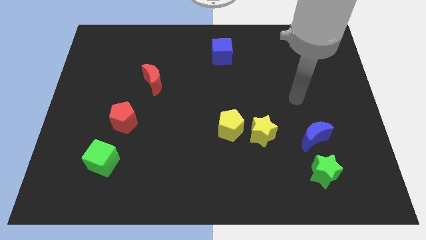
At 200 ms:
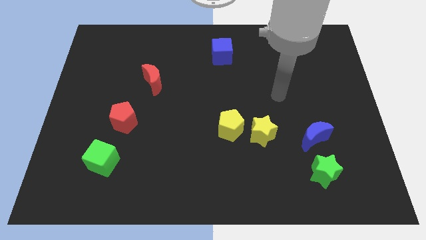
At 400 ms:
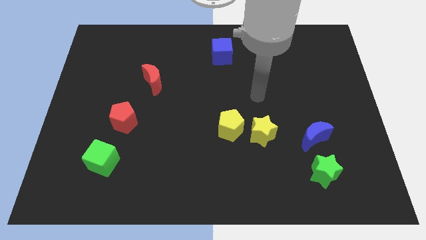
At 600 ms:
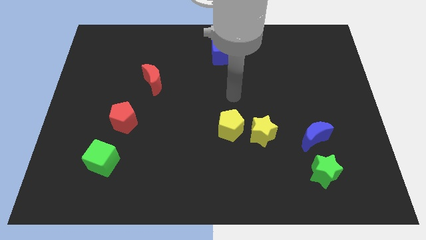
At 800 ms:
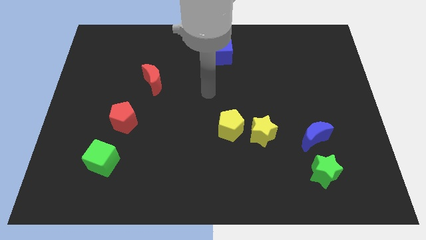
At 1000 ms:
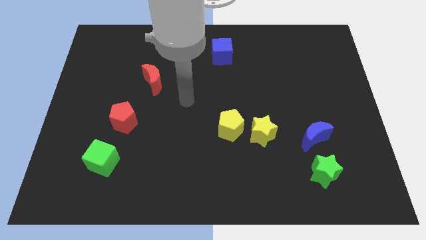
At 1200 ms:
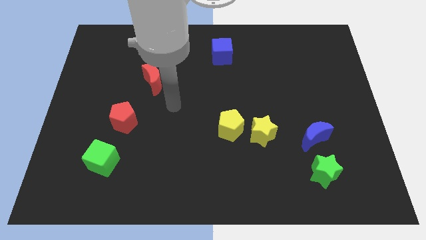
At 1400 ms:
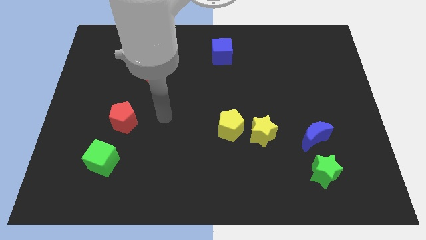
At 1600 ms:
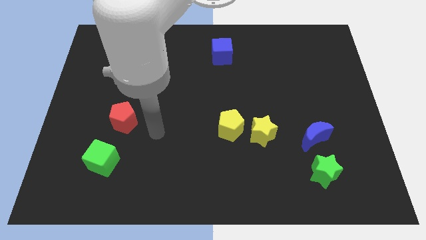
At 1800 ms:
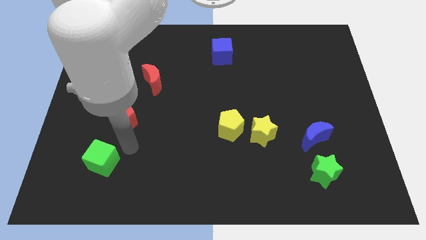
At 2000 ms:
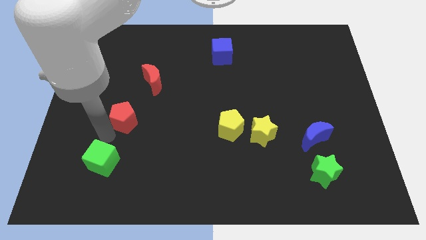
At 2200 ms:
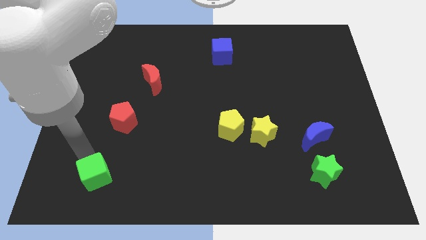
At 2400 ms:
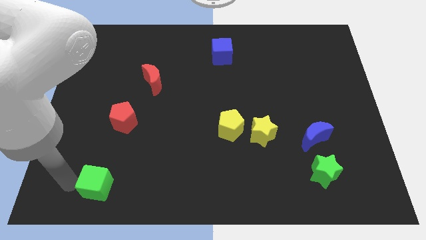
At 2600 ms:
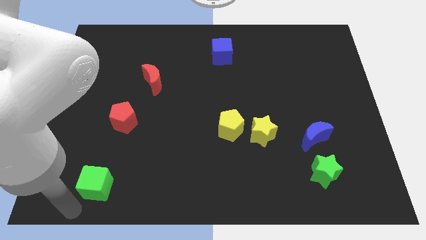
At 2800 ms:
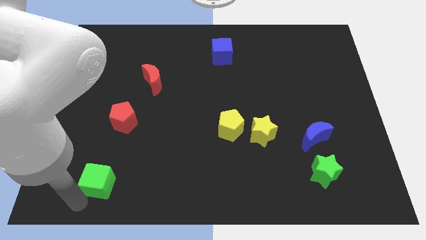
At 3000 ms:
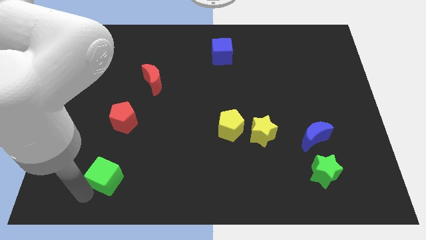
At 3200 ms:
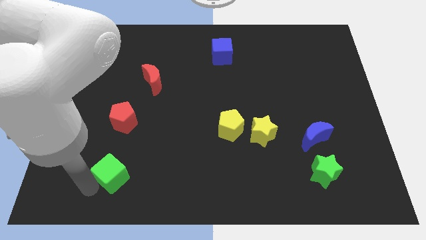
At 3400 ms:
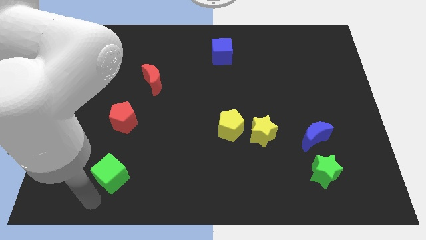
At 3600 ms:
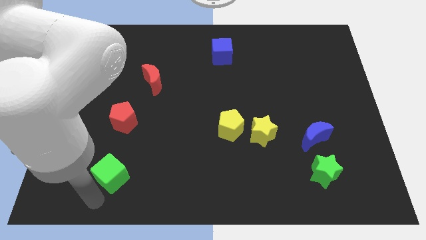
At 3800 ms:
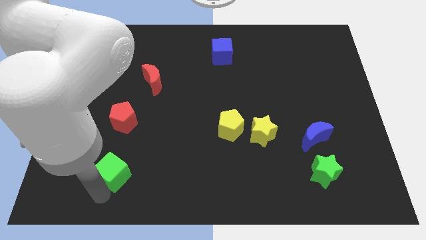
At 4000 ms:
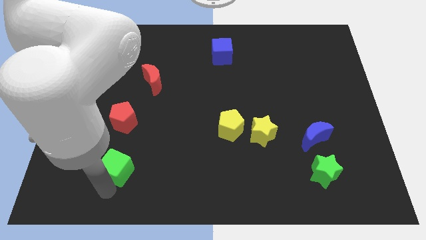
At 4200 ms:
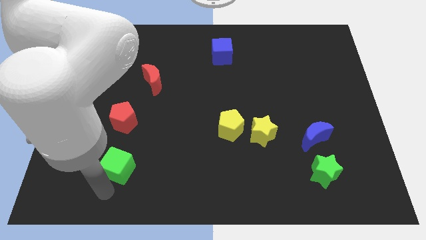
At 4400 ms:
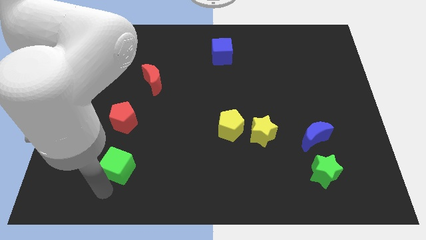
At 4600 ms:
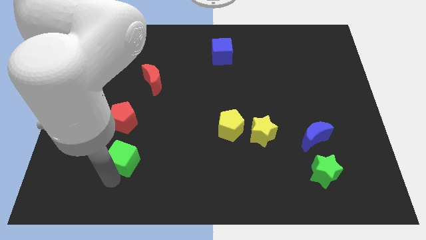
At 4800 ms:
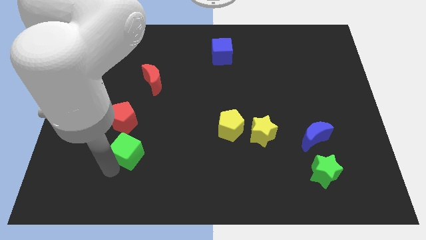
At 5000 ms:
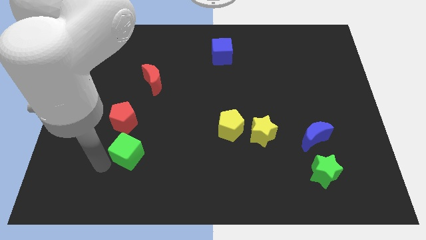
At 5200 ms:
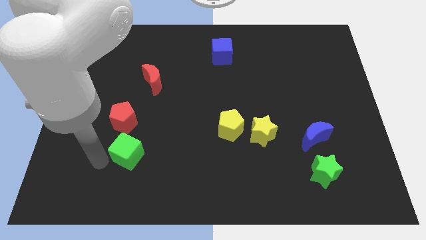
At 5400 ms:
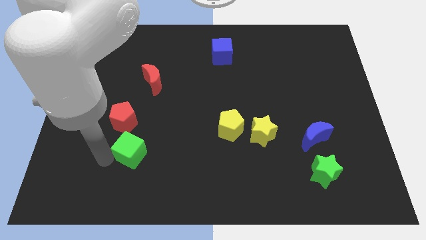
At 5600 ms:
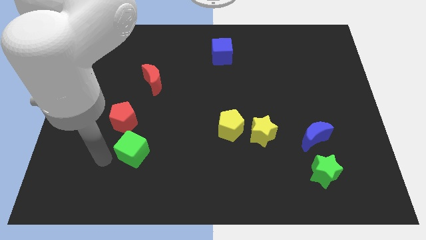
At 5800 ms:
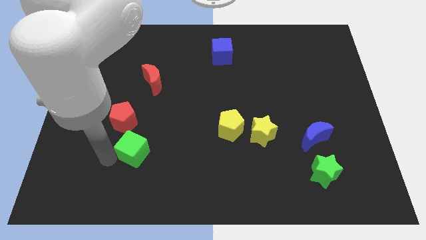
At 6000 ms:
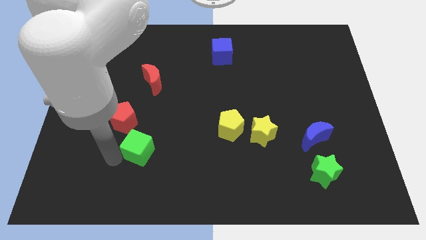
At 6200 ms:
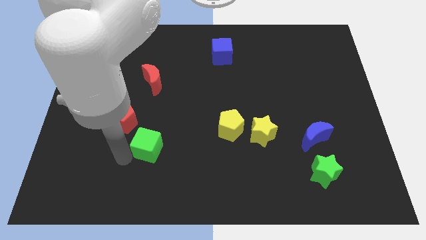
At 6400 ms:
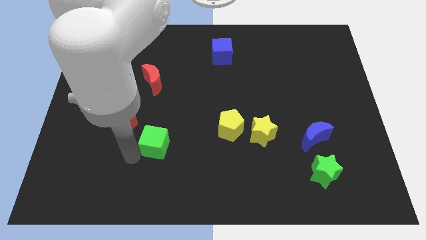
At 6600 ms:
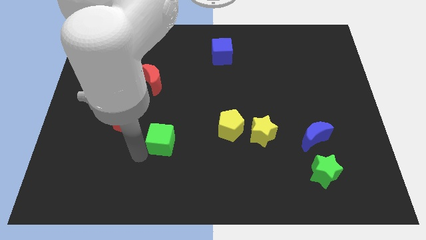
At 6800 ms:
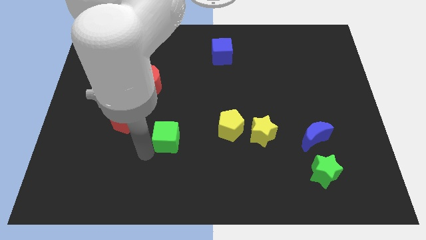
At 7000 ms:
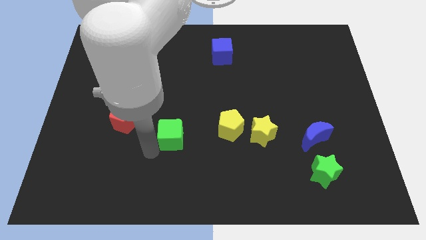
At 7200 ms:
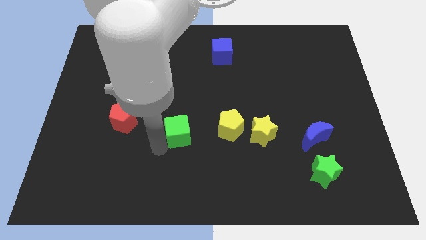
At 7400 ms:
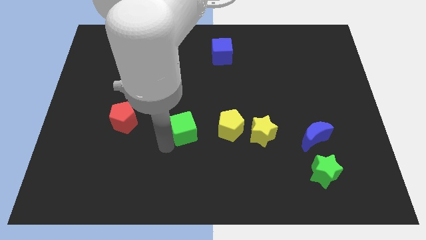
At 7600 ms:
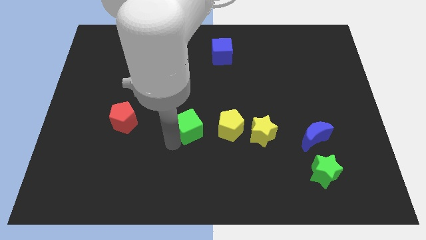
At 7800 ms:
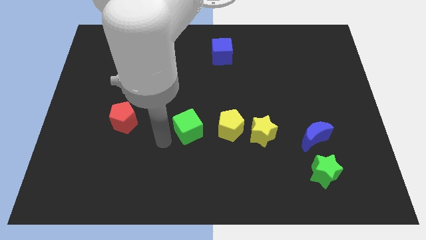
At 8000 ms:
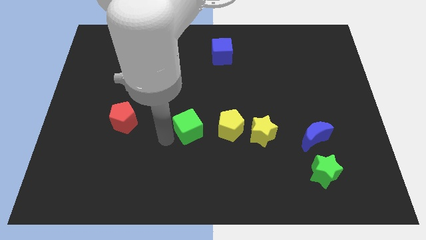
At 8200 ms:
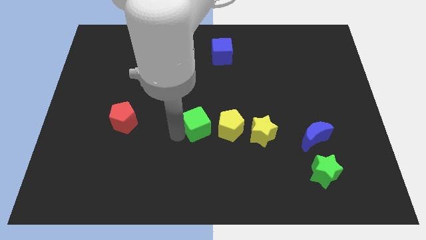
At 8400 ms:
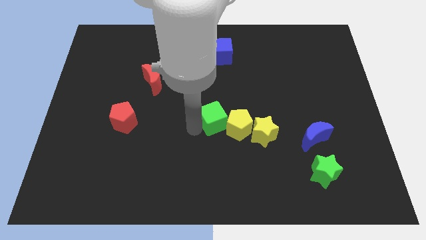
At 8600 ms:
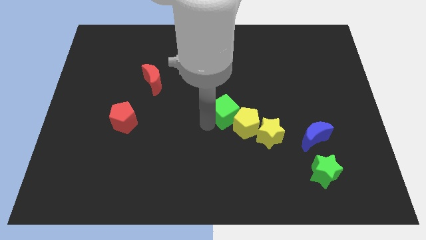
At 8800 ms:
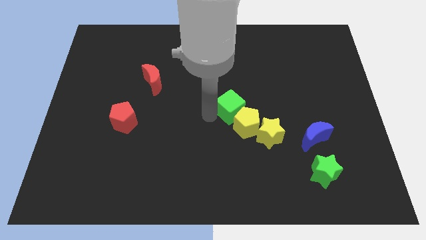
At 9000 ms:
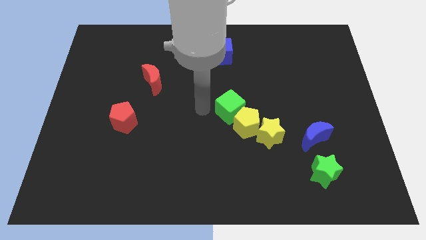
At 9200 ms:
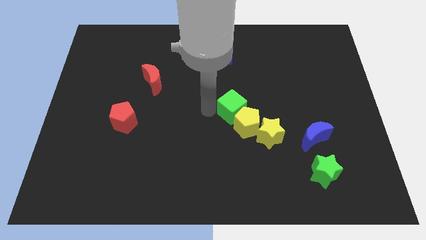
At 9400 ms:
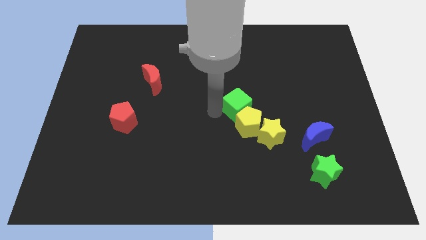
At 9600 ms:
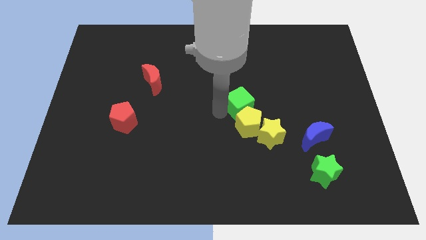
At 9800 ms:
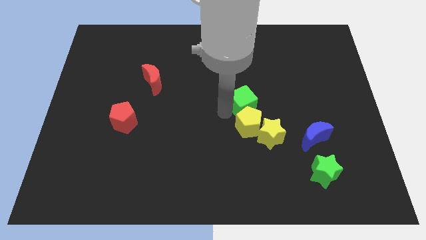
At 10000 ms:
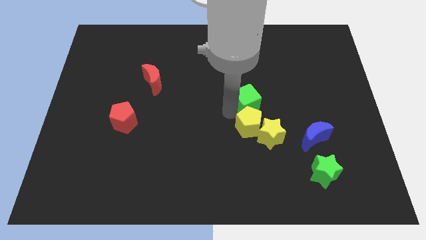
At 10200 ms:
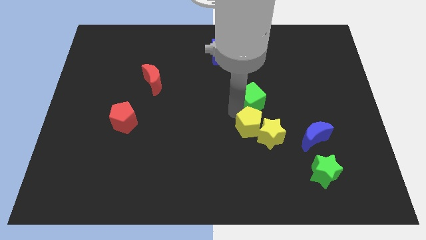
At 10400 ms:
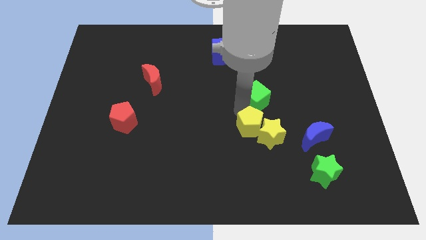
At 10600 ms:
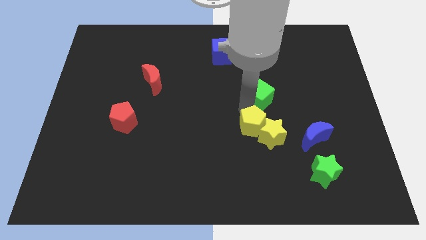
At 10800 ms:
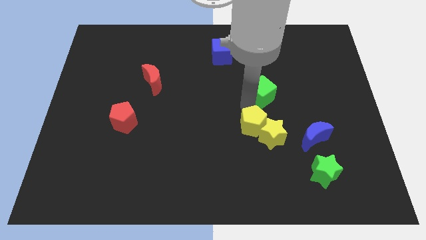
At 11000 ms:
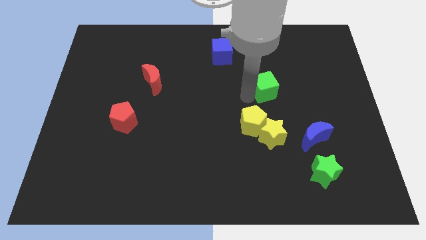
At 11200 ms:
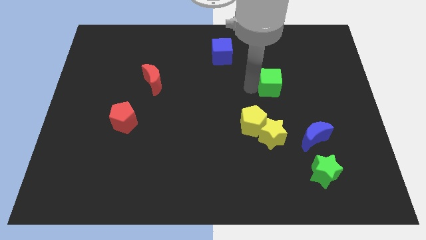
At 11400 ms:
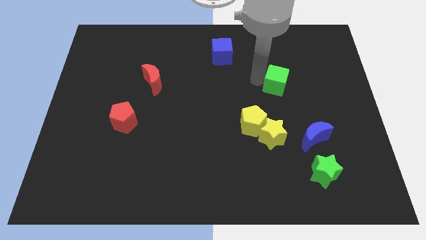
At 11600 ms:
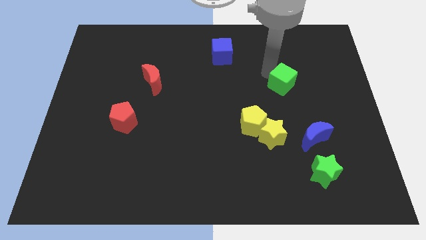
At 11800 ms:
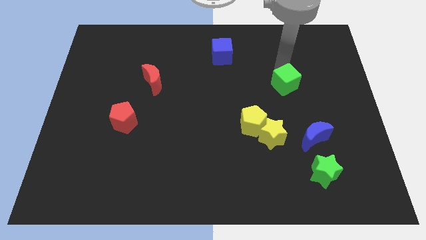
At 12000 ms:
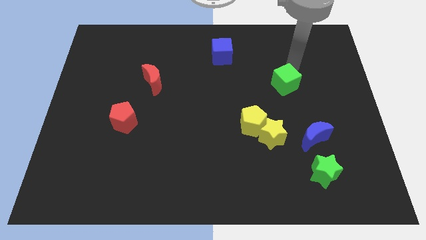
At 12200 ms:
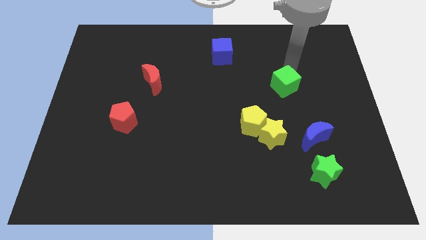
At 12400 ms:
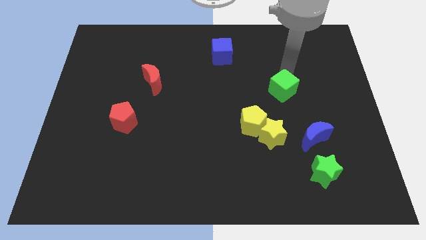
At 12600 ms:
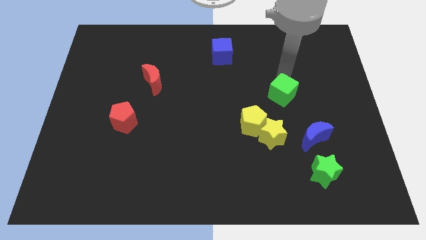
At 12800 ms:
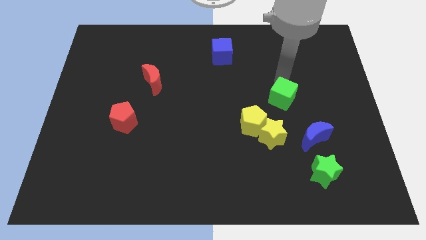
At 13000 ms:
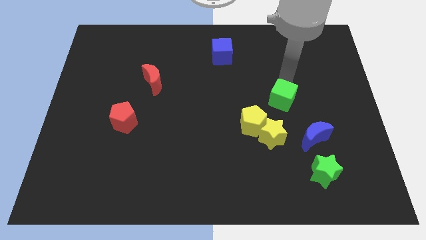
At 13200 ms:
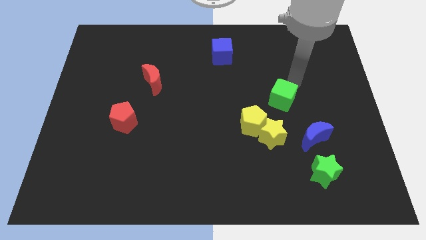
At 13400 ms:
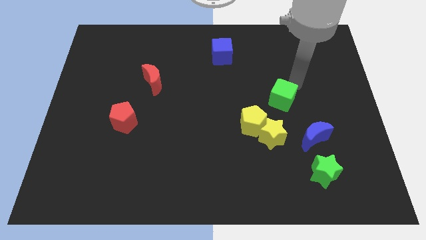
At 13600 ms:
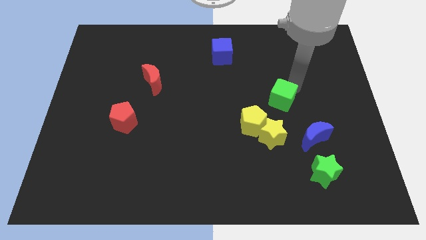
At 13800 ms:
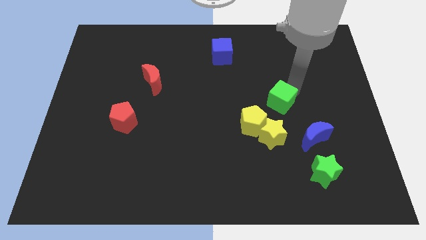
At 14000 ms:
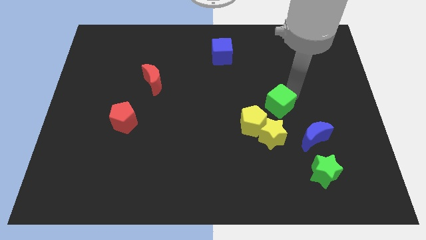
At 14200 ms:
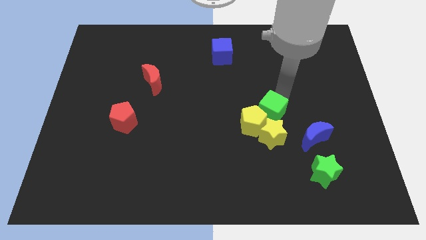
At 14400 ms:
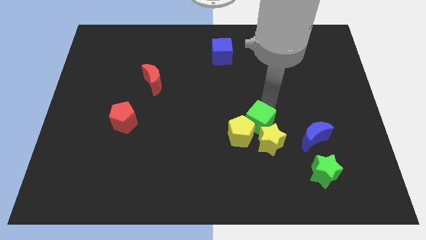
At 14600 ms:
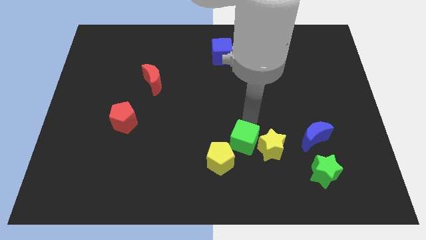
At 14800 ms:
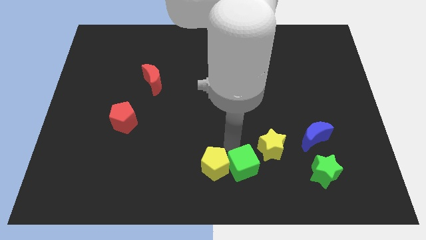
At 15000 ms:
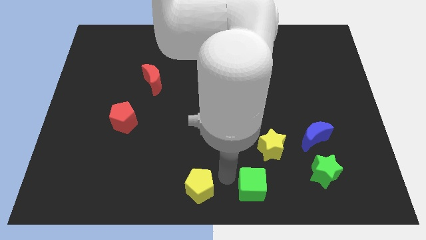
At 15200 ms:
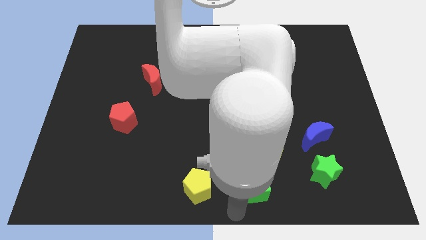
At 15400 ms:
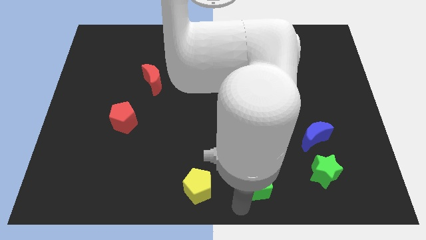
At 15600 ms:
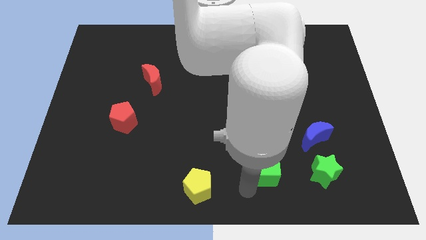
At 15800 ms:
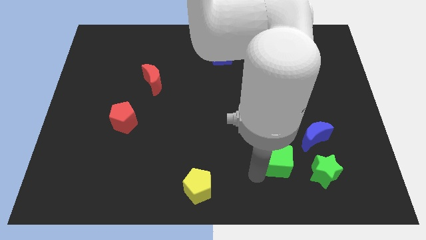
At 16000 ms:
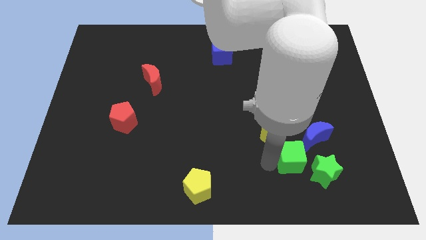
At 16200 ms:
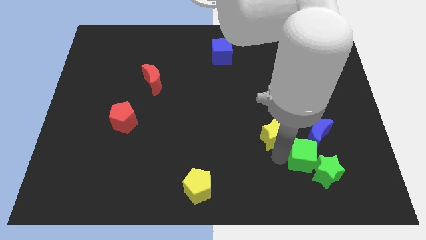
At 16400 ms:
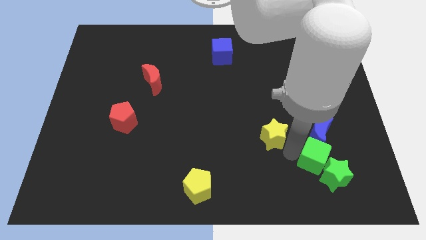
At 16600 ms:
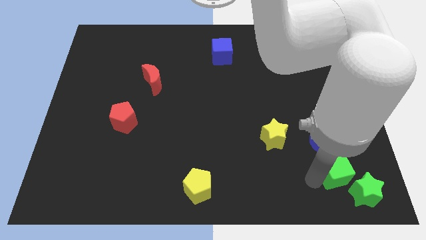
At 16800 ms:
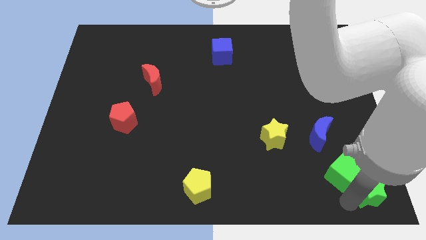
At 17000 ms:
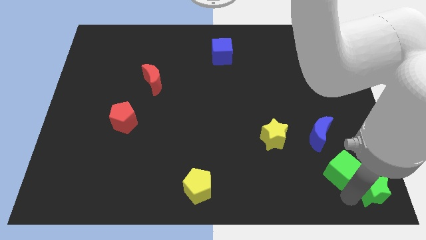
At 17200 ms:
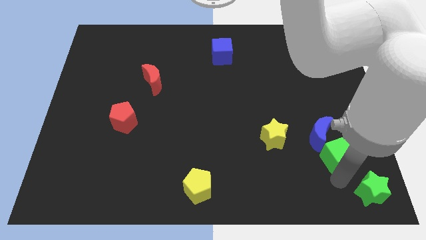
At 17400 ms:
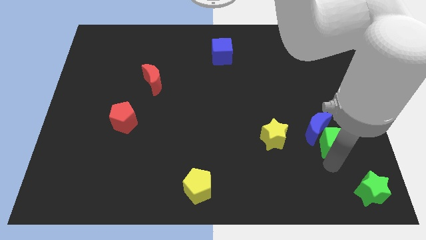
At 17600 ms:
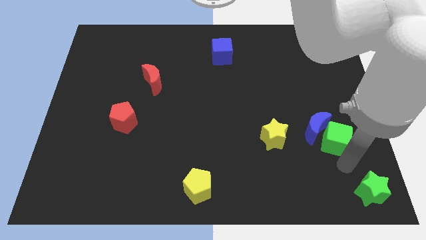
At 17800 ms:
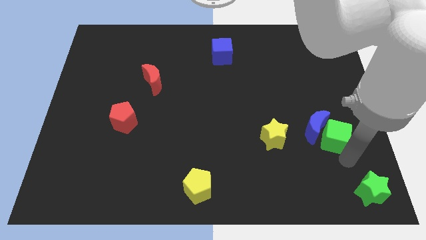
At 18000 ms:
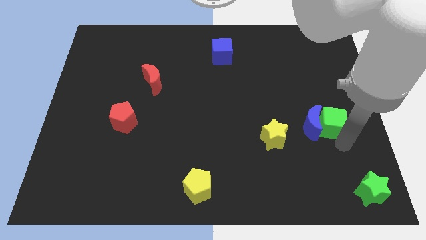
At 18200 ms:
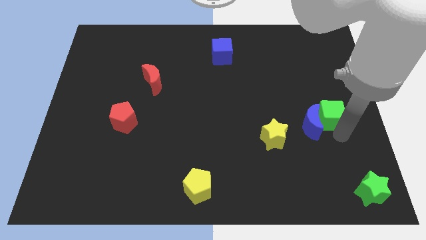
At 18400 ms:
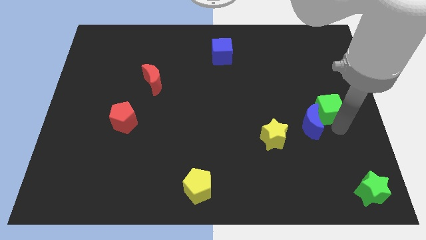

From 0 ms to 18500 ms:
put the green cube to the top side of the blue moon
